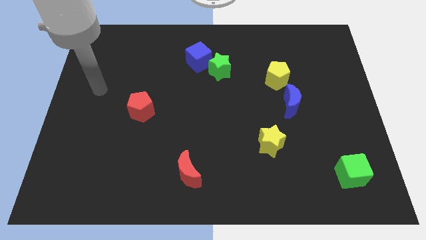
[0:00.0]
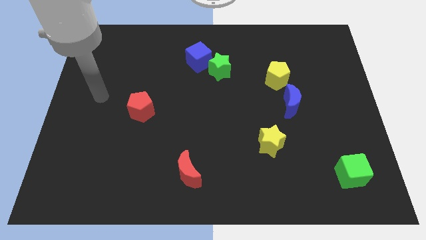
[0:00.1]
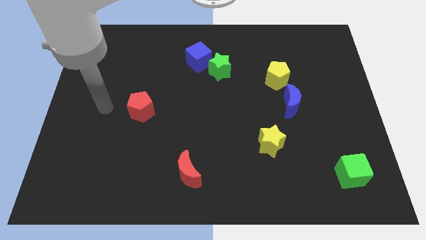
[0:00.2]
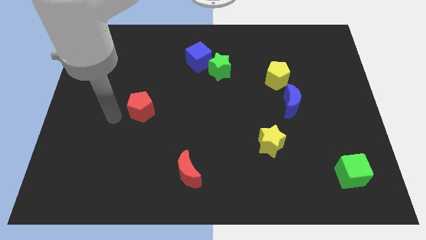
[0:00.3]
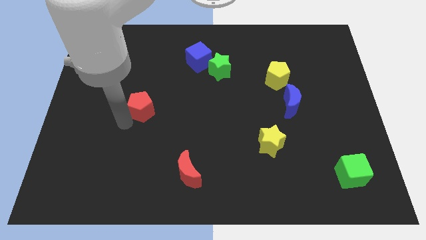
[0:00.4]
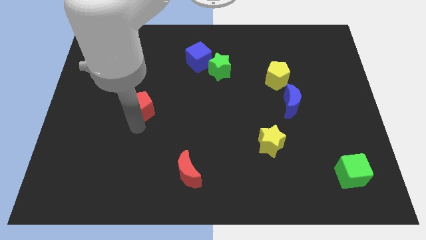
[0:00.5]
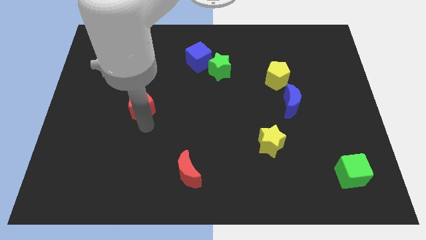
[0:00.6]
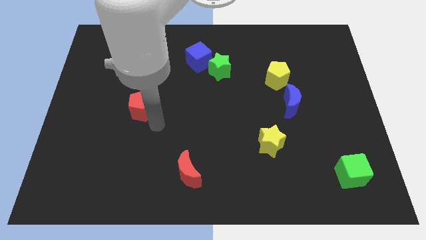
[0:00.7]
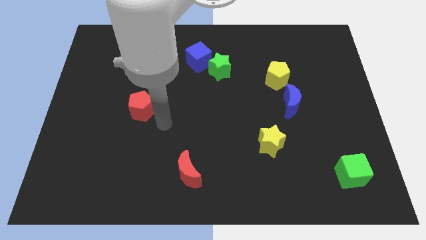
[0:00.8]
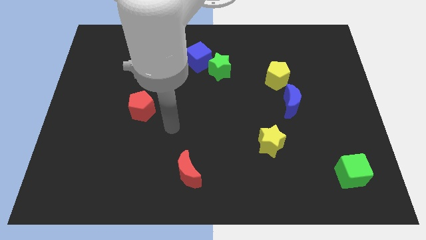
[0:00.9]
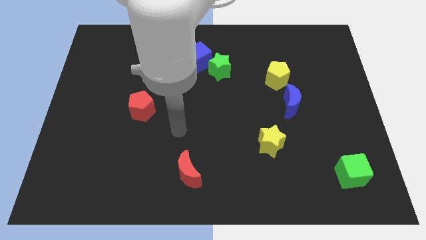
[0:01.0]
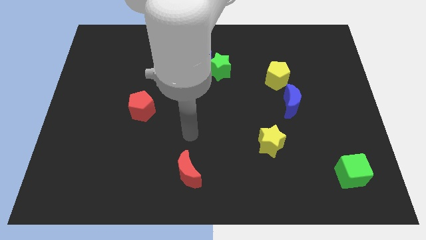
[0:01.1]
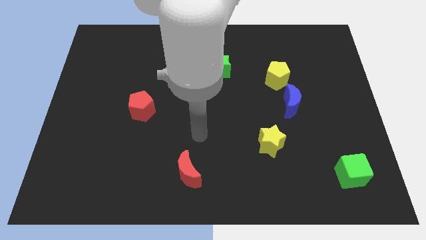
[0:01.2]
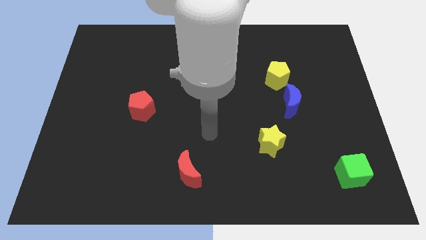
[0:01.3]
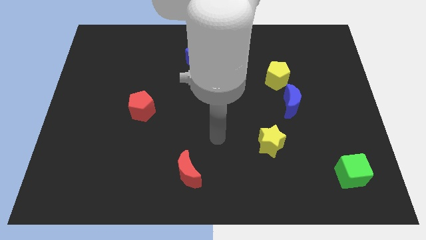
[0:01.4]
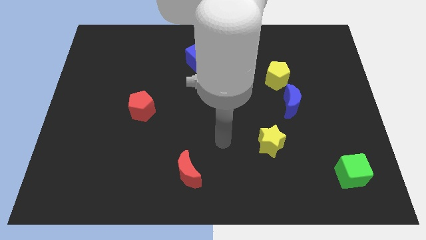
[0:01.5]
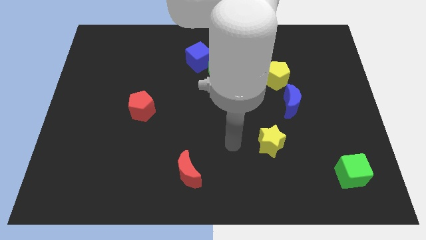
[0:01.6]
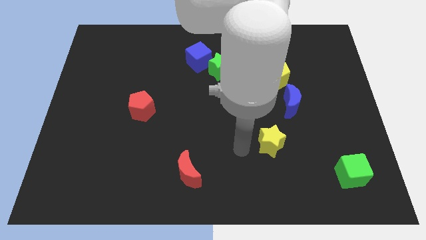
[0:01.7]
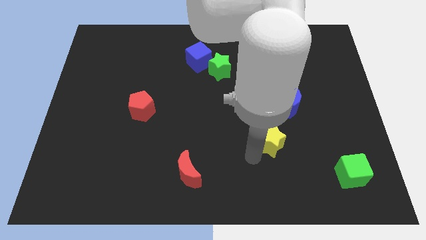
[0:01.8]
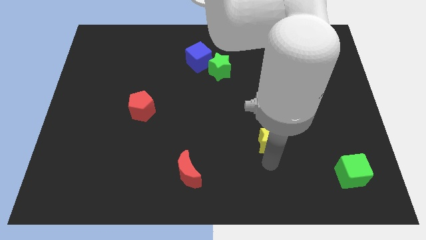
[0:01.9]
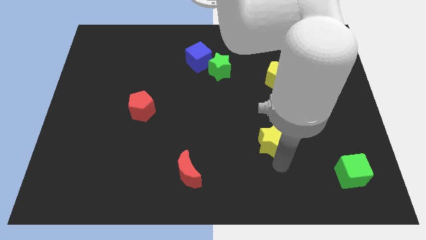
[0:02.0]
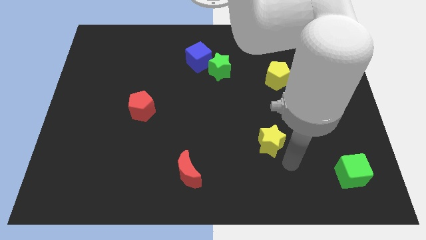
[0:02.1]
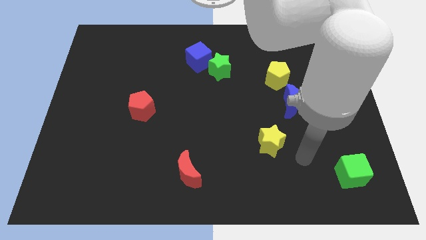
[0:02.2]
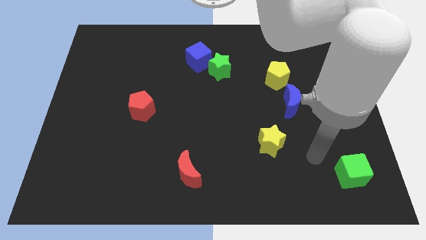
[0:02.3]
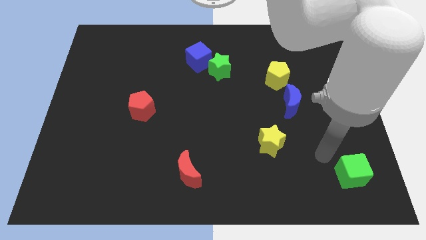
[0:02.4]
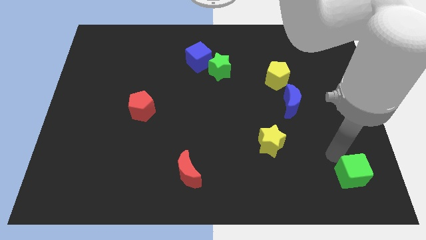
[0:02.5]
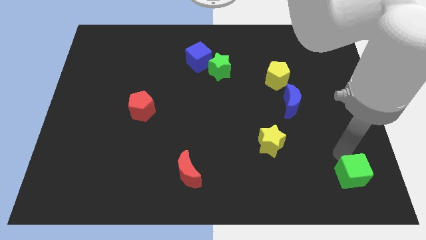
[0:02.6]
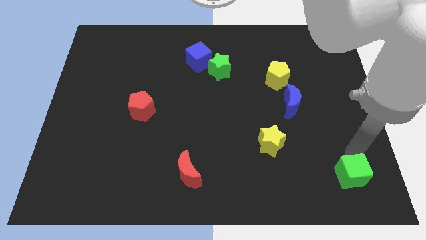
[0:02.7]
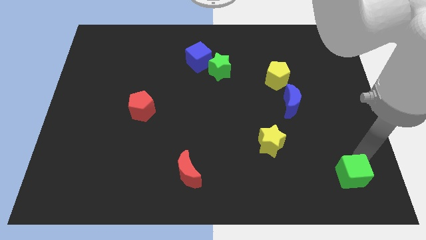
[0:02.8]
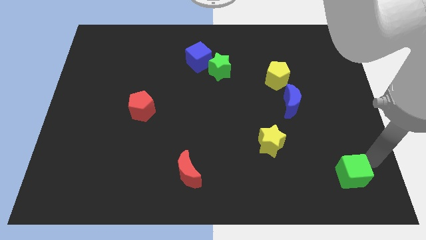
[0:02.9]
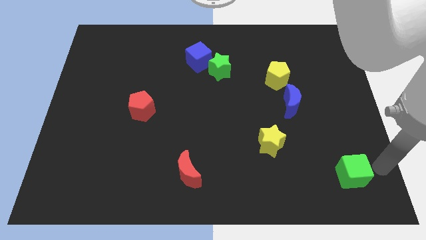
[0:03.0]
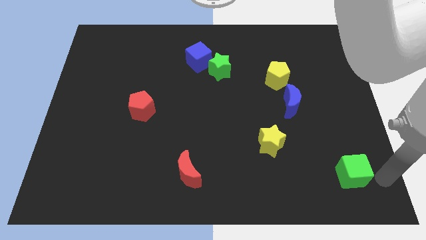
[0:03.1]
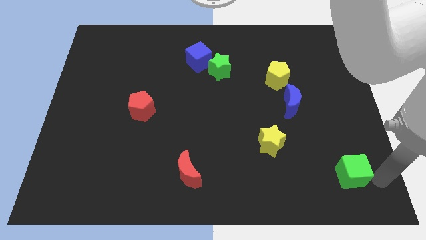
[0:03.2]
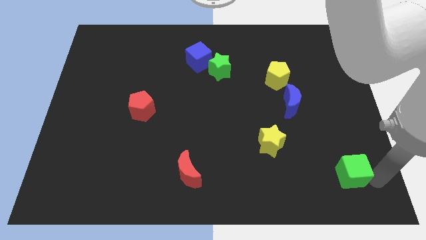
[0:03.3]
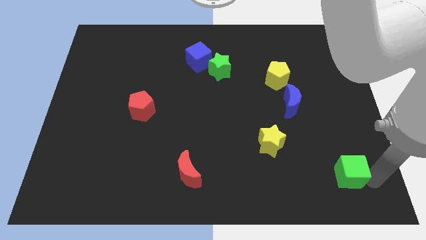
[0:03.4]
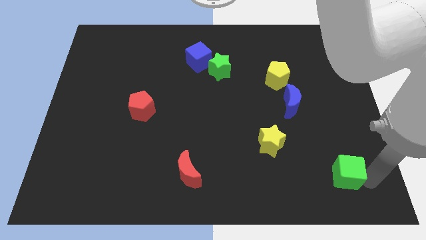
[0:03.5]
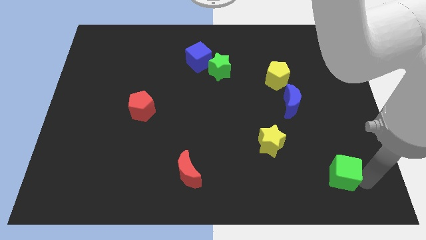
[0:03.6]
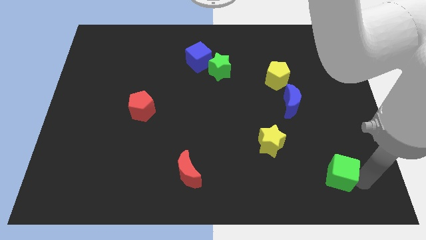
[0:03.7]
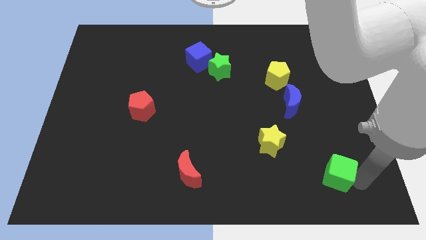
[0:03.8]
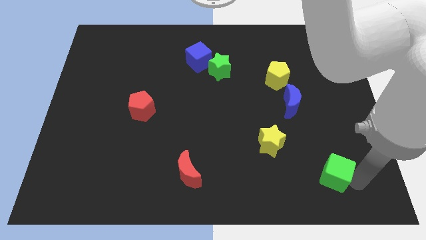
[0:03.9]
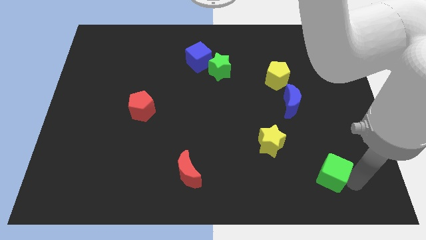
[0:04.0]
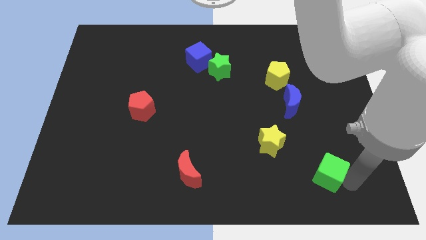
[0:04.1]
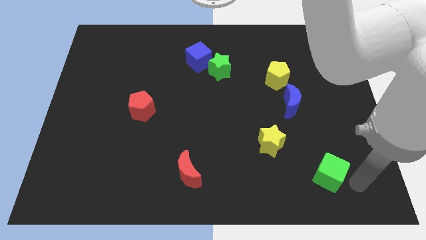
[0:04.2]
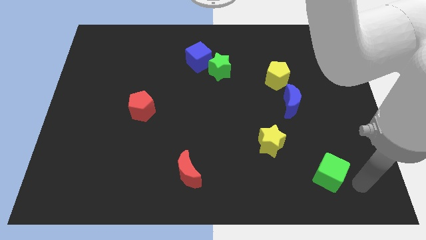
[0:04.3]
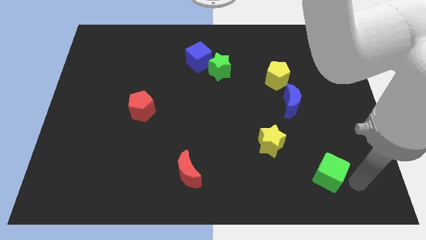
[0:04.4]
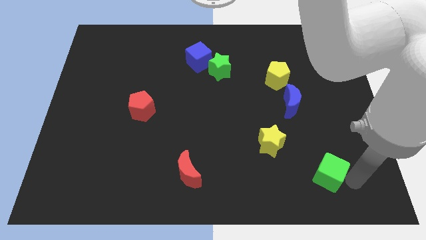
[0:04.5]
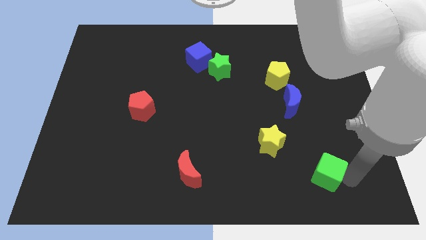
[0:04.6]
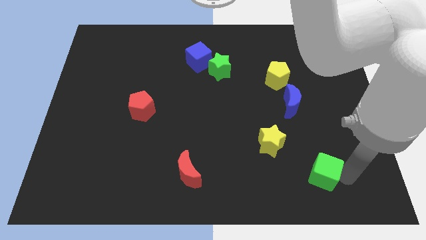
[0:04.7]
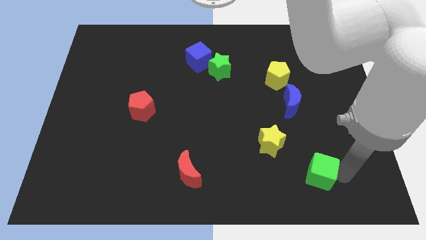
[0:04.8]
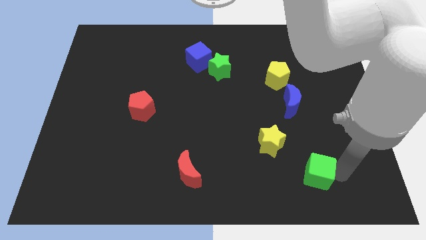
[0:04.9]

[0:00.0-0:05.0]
move the green cube a bit left

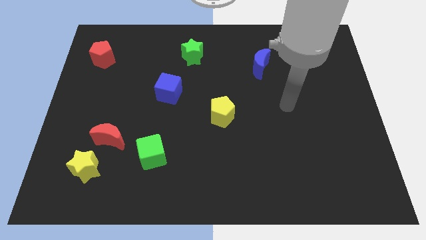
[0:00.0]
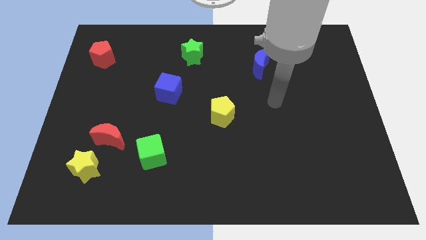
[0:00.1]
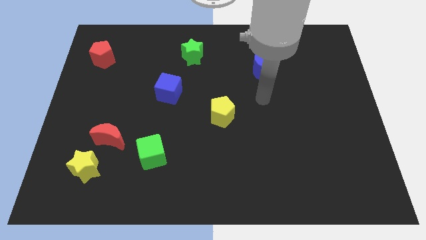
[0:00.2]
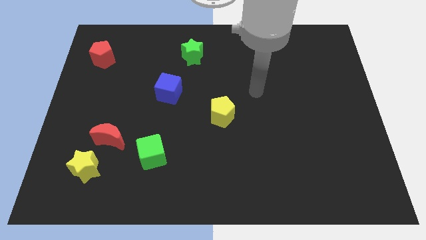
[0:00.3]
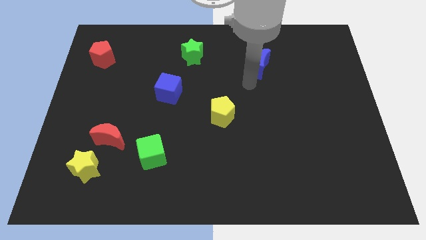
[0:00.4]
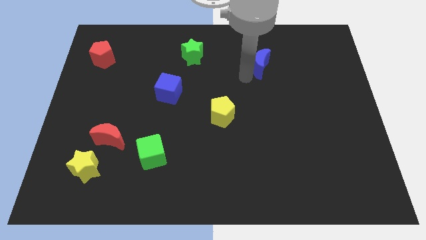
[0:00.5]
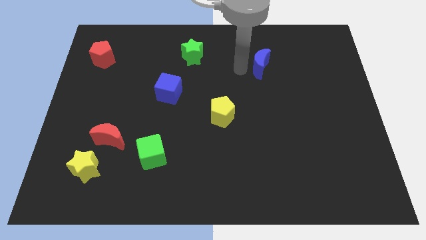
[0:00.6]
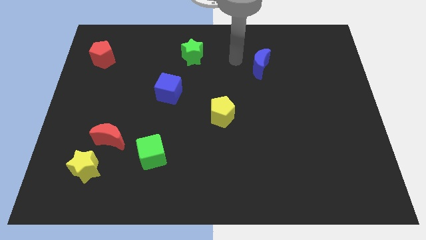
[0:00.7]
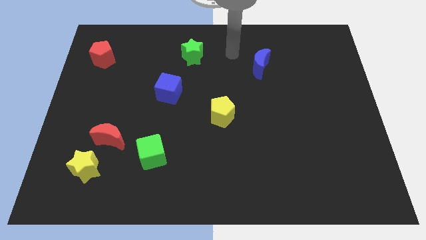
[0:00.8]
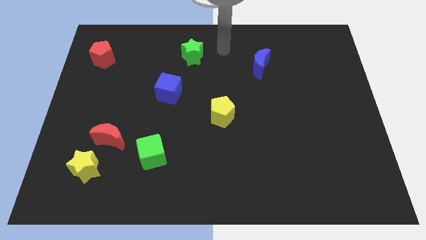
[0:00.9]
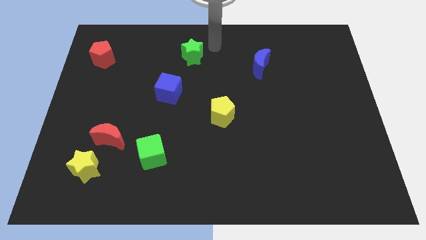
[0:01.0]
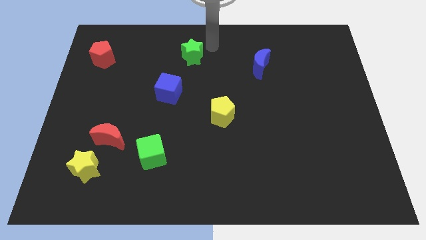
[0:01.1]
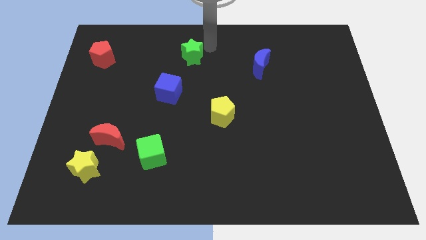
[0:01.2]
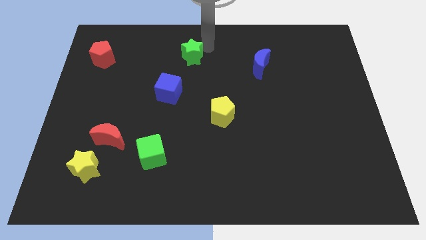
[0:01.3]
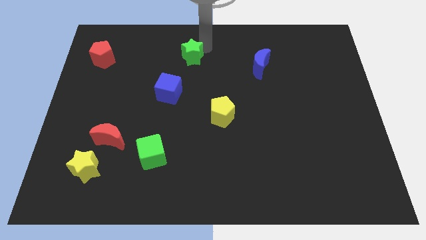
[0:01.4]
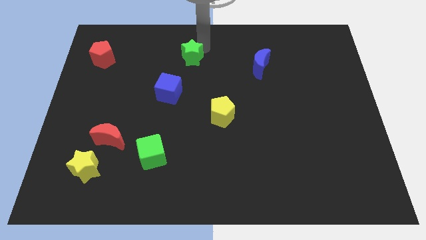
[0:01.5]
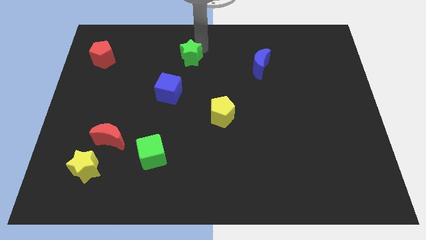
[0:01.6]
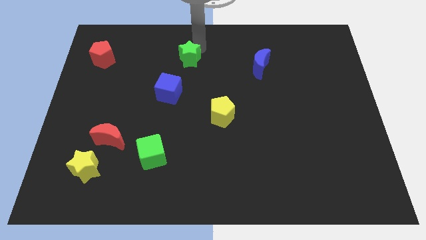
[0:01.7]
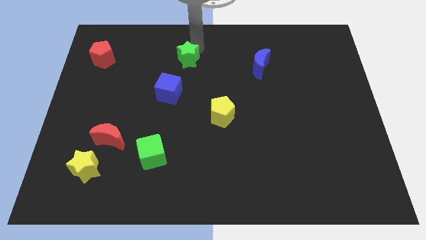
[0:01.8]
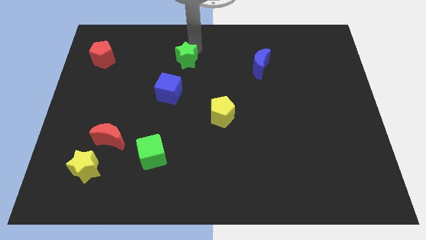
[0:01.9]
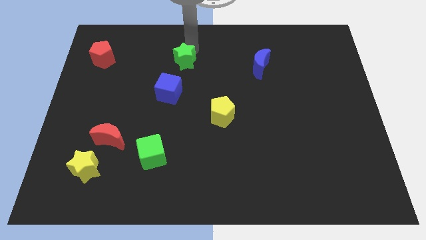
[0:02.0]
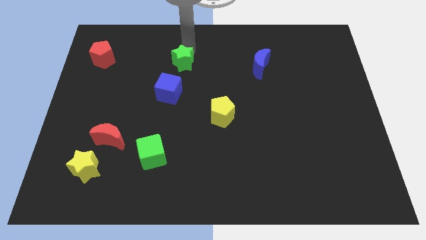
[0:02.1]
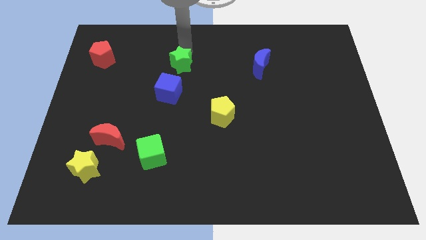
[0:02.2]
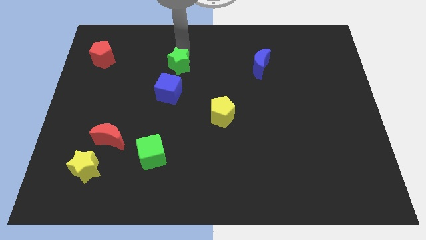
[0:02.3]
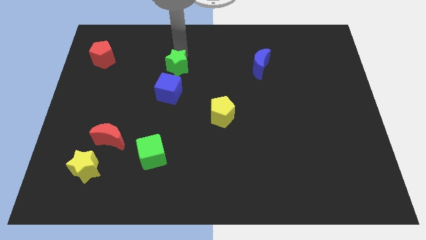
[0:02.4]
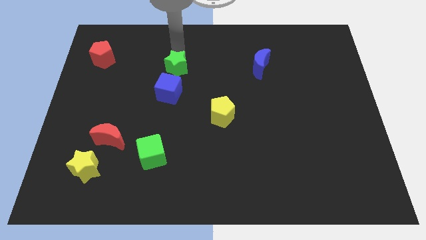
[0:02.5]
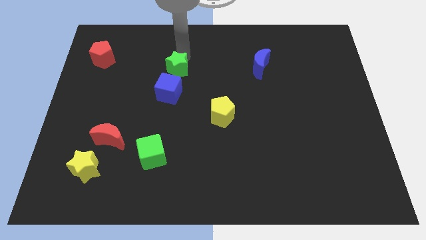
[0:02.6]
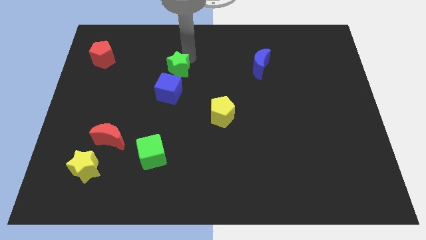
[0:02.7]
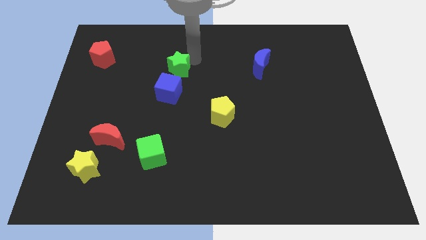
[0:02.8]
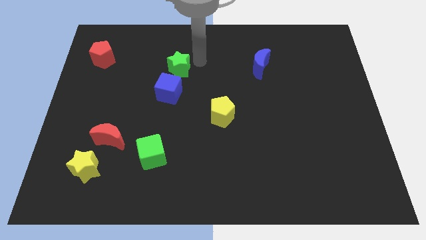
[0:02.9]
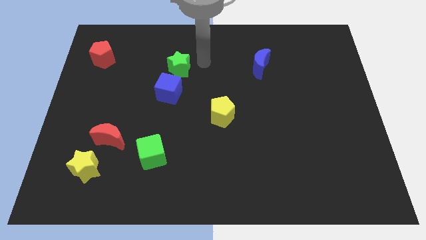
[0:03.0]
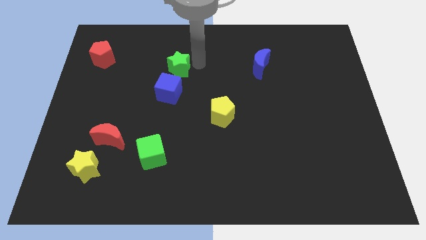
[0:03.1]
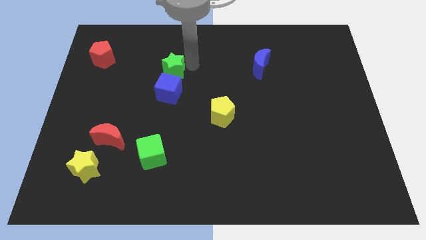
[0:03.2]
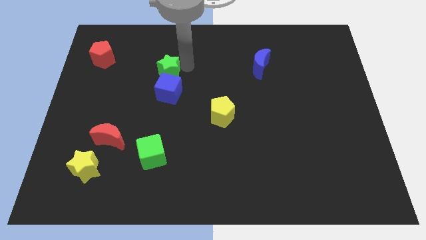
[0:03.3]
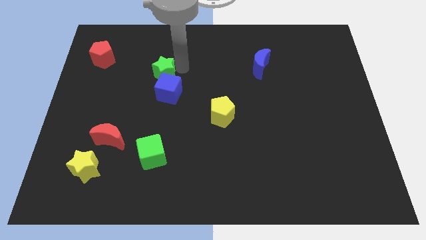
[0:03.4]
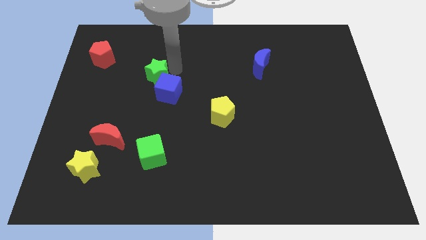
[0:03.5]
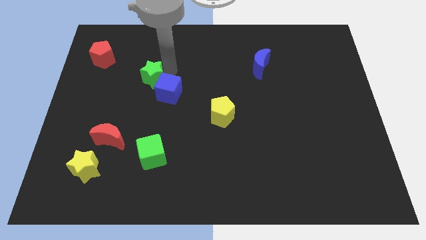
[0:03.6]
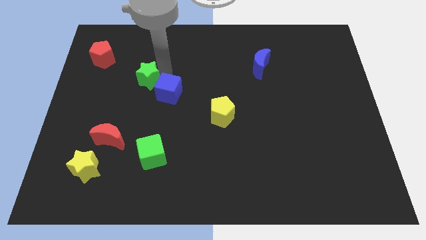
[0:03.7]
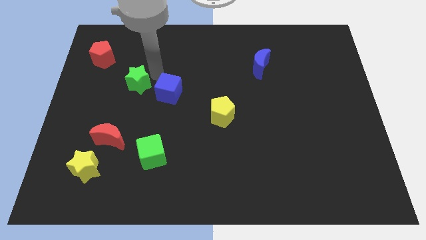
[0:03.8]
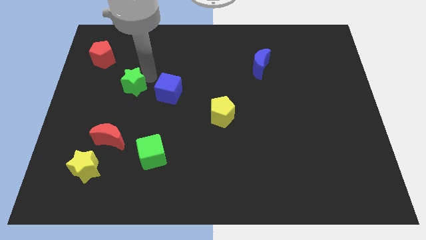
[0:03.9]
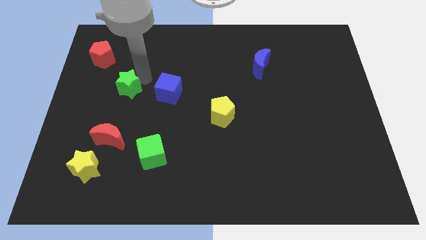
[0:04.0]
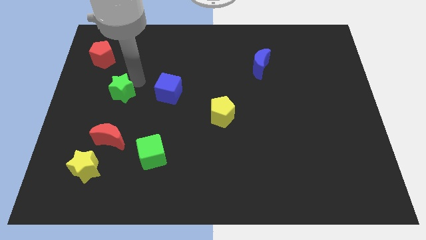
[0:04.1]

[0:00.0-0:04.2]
push the green star down and then to the left
